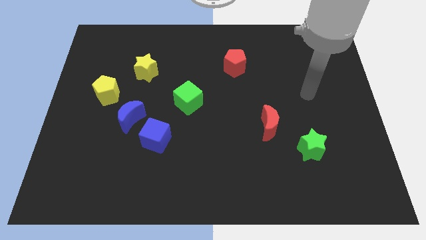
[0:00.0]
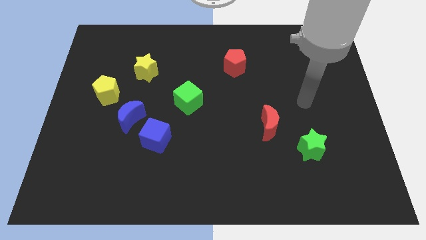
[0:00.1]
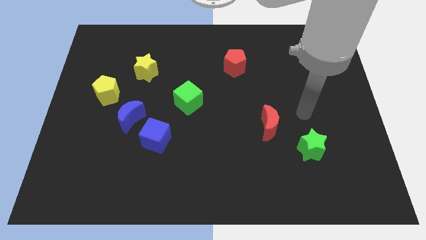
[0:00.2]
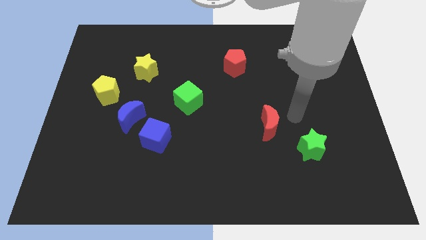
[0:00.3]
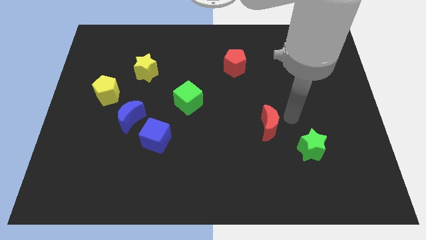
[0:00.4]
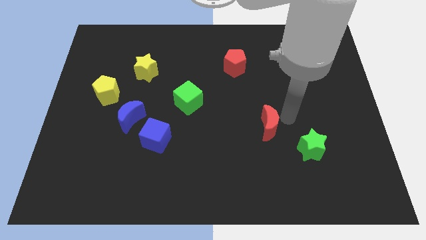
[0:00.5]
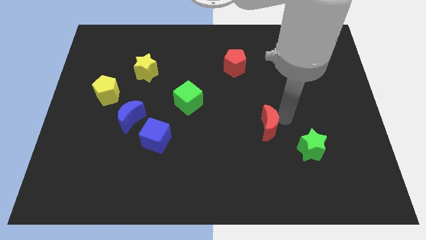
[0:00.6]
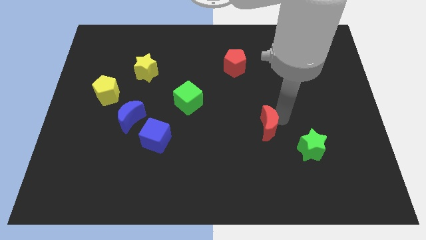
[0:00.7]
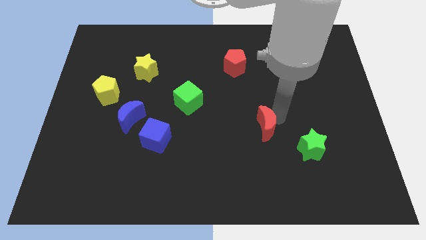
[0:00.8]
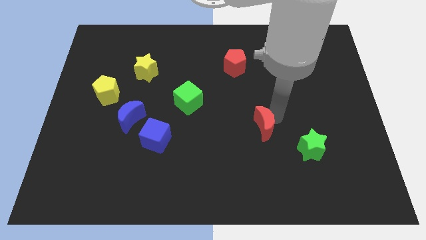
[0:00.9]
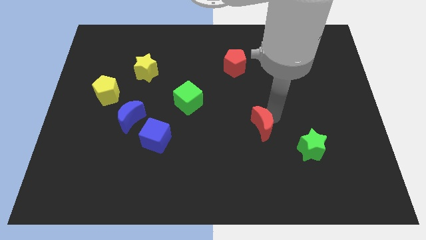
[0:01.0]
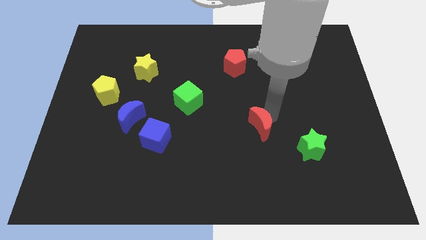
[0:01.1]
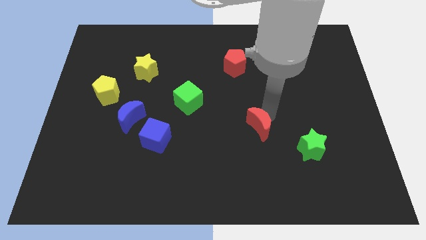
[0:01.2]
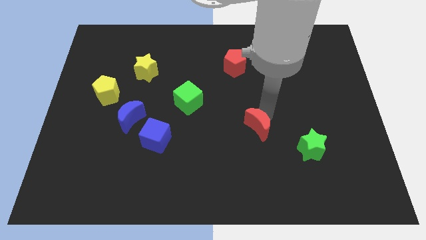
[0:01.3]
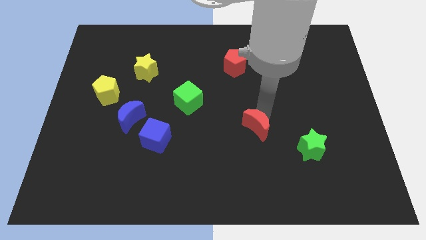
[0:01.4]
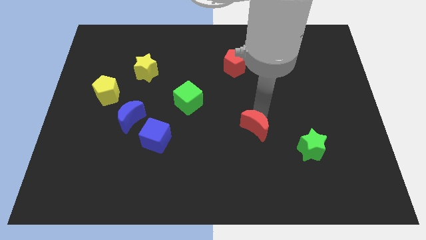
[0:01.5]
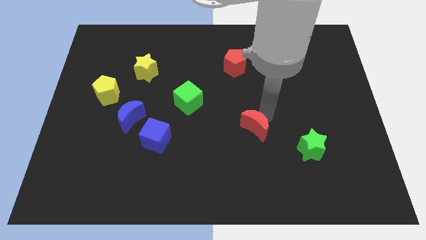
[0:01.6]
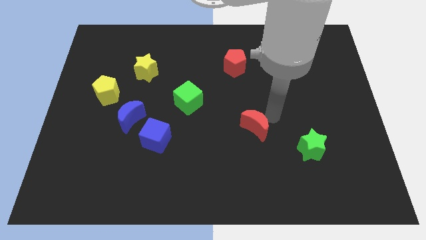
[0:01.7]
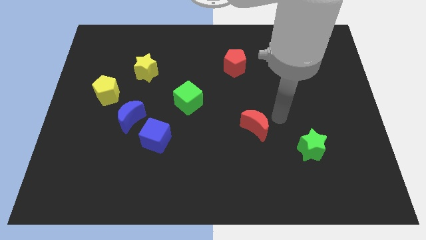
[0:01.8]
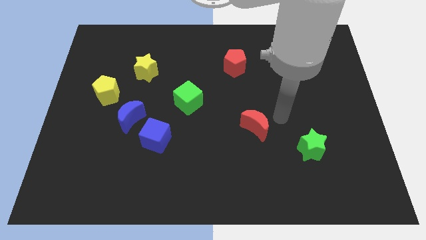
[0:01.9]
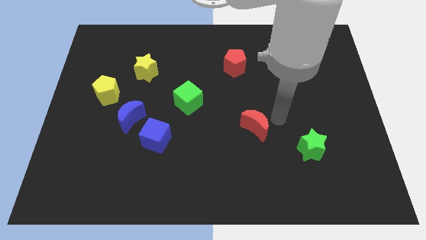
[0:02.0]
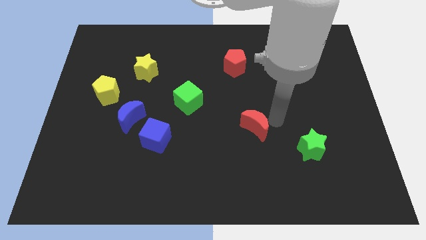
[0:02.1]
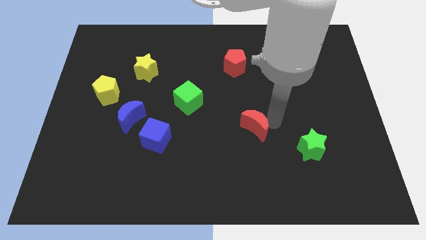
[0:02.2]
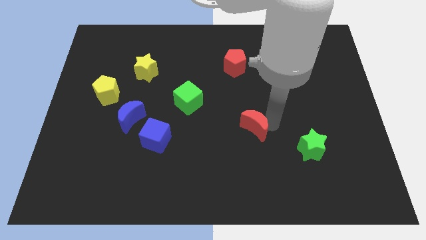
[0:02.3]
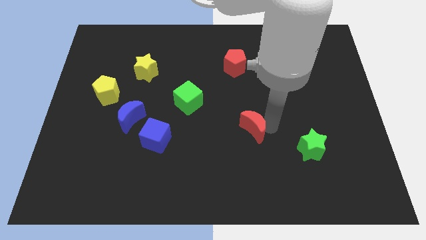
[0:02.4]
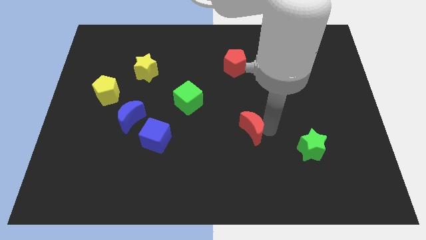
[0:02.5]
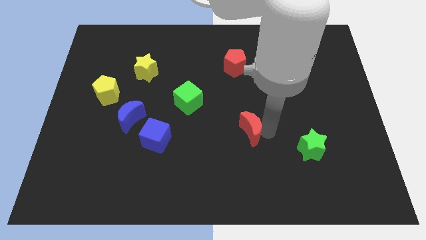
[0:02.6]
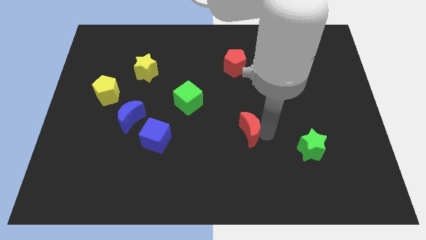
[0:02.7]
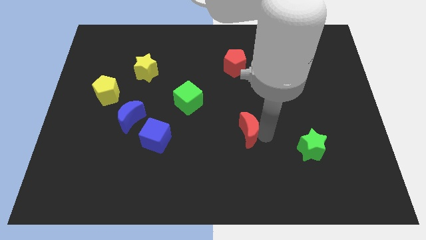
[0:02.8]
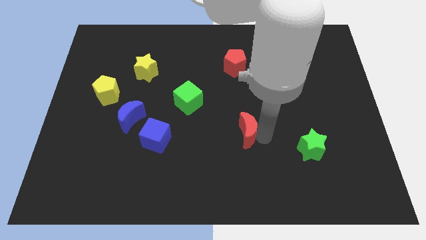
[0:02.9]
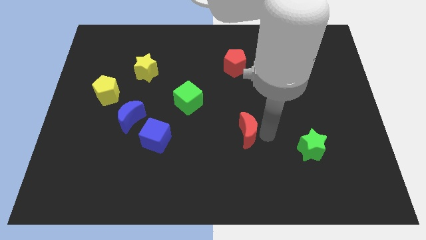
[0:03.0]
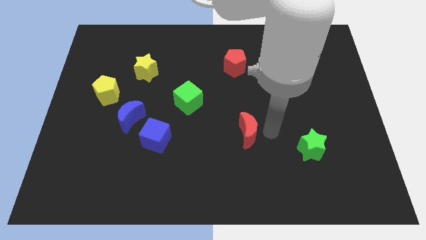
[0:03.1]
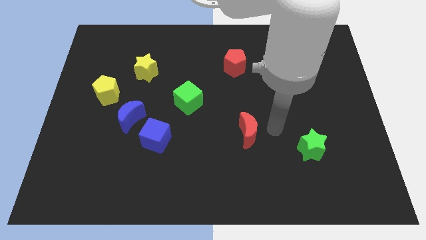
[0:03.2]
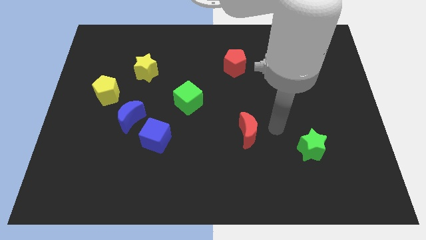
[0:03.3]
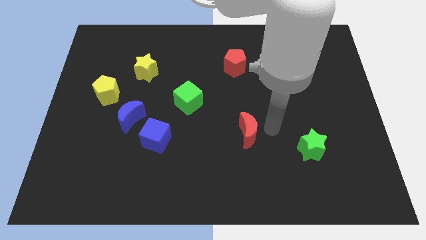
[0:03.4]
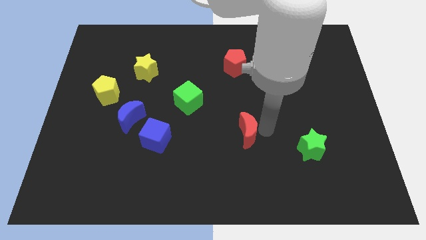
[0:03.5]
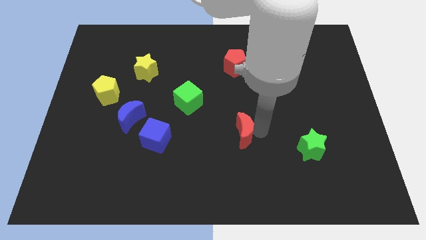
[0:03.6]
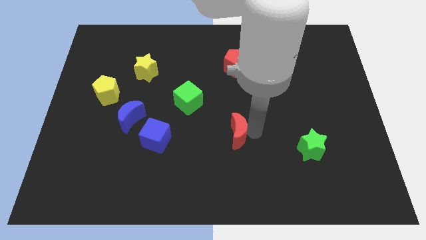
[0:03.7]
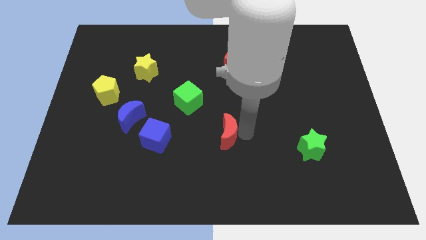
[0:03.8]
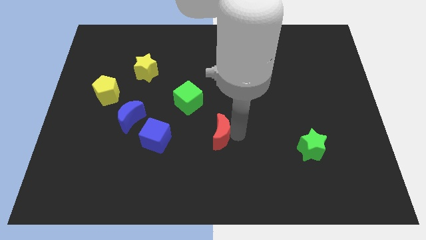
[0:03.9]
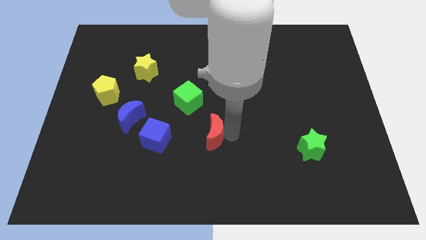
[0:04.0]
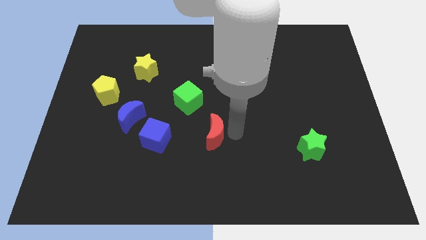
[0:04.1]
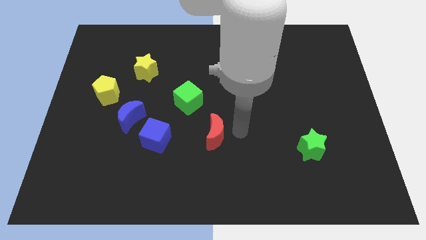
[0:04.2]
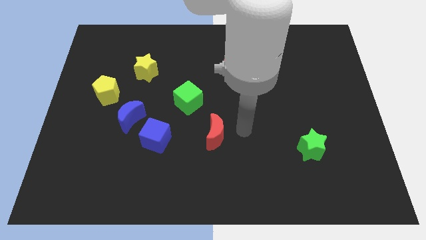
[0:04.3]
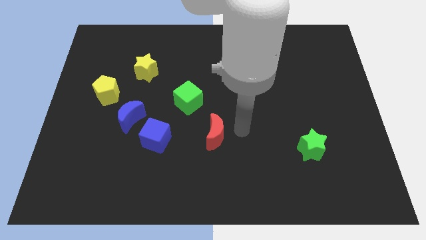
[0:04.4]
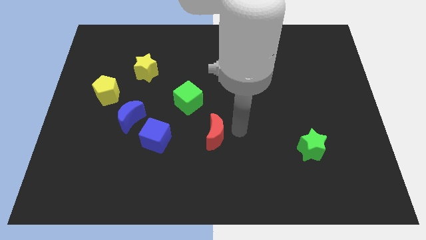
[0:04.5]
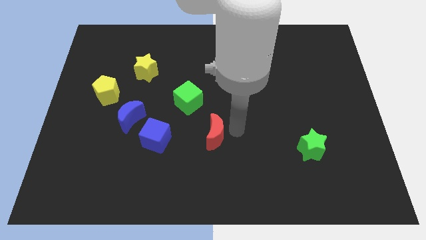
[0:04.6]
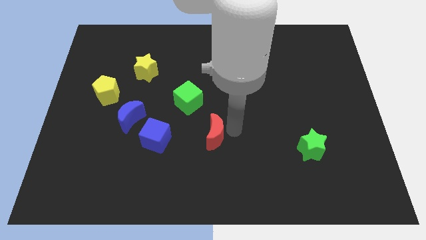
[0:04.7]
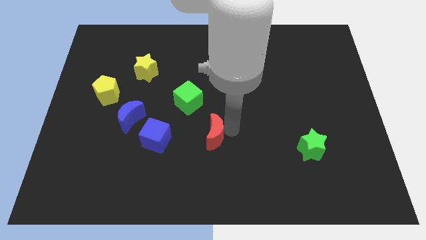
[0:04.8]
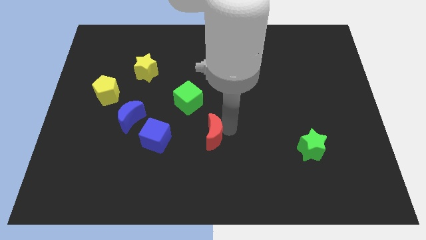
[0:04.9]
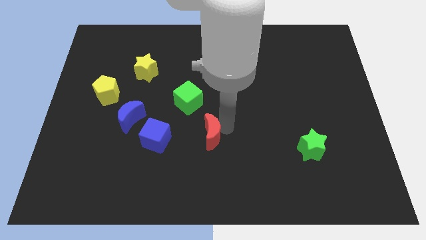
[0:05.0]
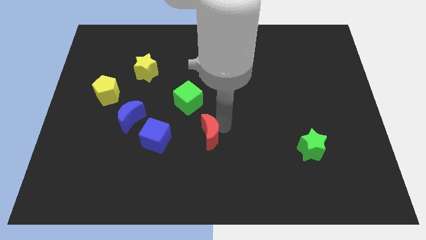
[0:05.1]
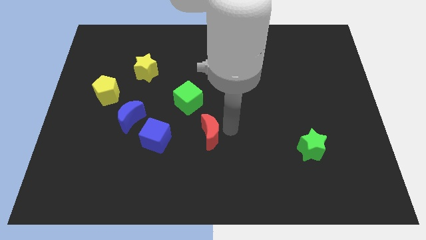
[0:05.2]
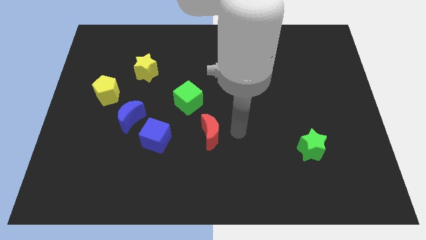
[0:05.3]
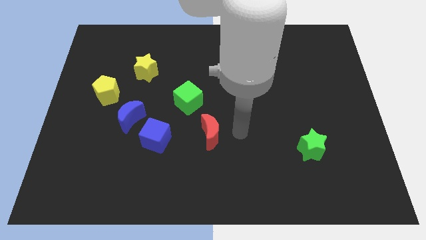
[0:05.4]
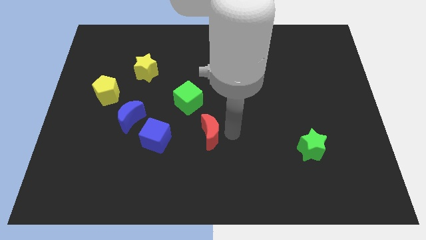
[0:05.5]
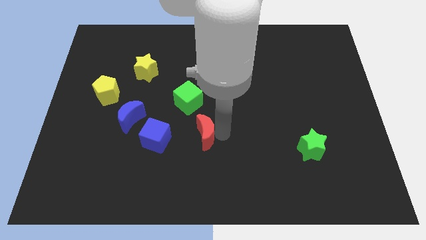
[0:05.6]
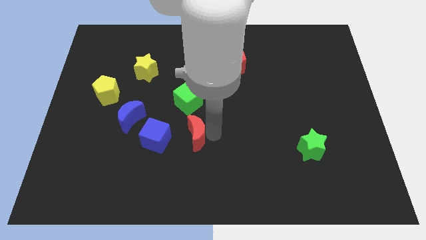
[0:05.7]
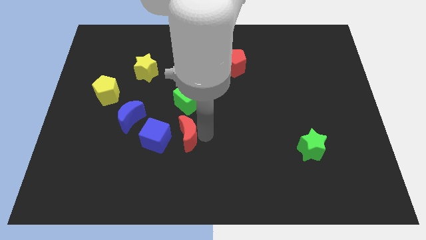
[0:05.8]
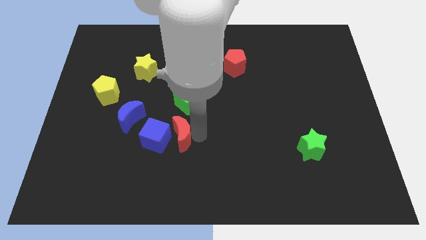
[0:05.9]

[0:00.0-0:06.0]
move the red moon close to the blue cube

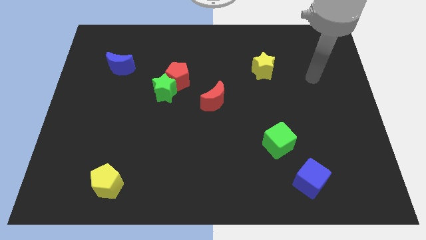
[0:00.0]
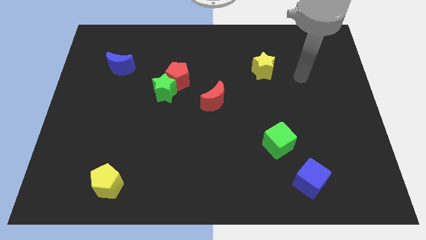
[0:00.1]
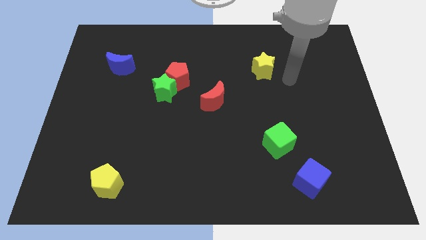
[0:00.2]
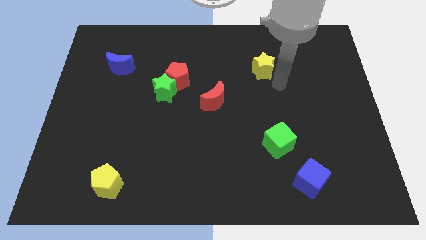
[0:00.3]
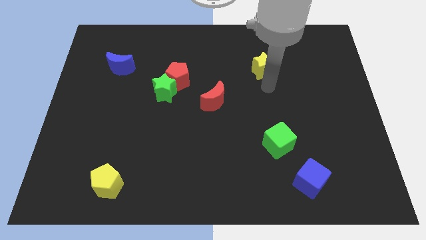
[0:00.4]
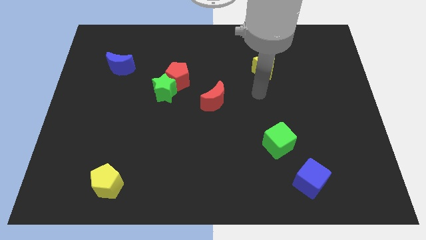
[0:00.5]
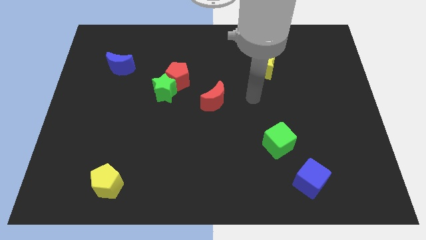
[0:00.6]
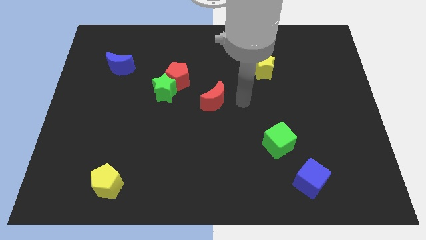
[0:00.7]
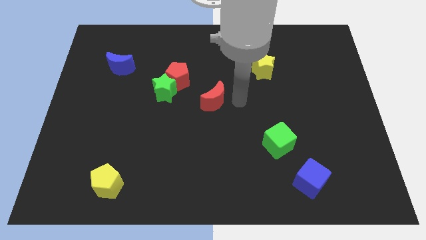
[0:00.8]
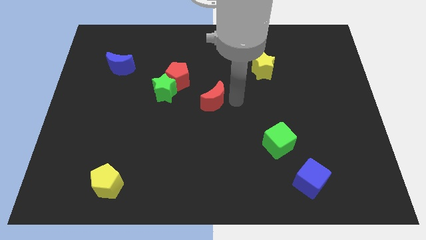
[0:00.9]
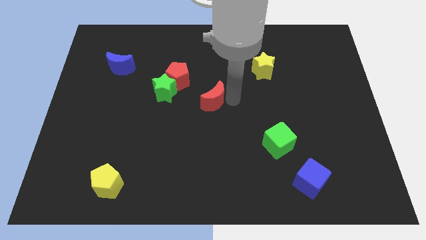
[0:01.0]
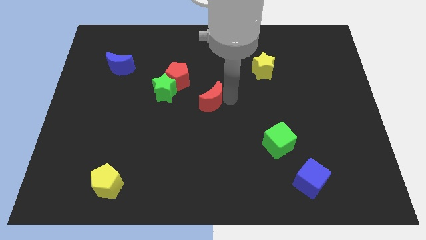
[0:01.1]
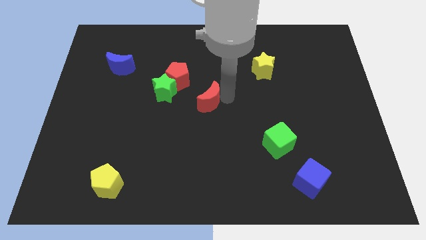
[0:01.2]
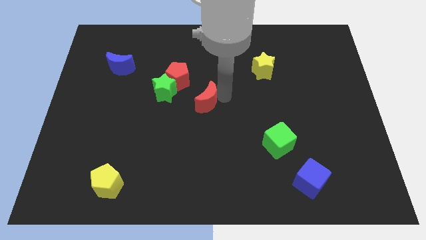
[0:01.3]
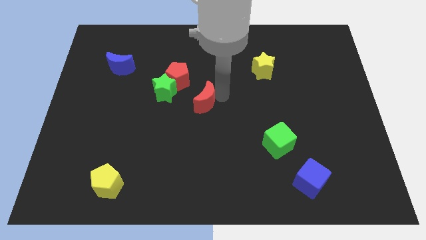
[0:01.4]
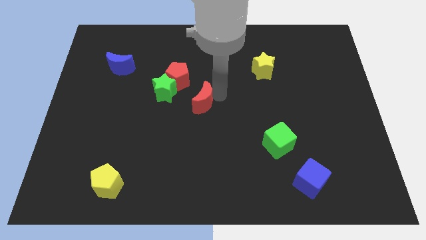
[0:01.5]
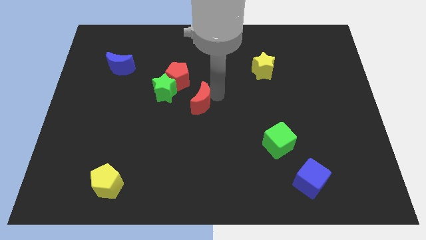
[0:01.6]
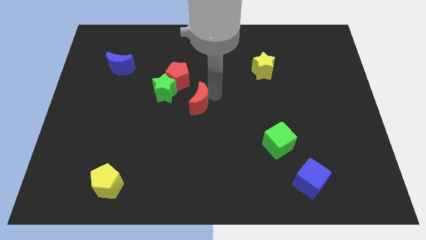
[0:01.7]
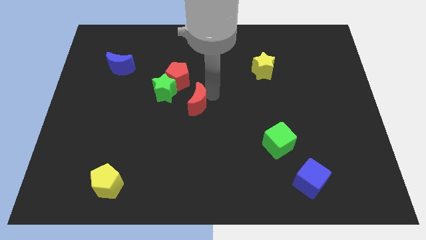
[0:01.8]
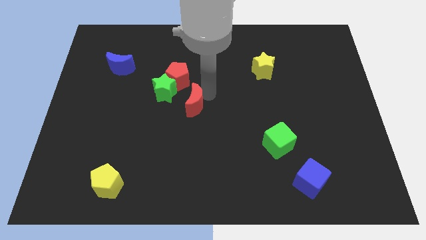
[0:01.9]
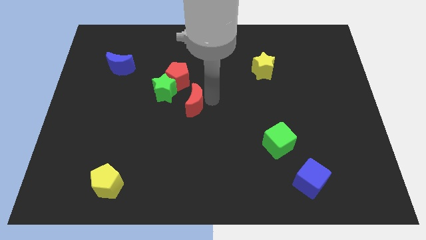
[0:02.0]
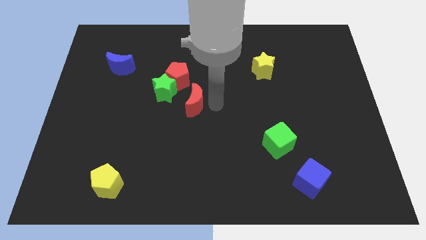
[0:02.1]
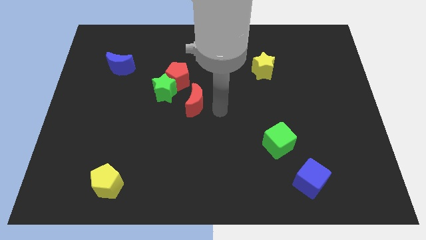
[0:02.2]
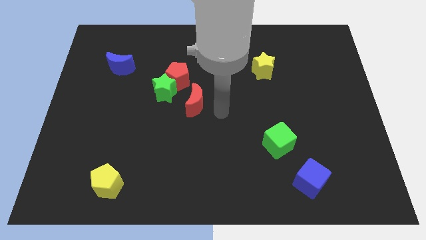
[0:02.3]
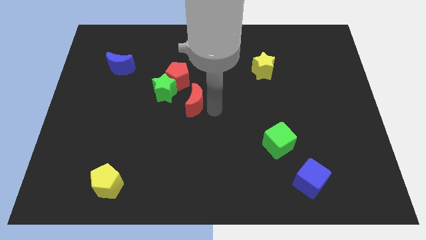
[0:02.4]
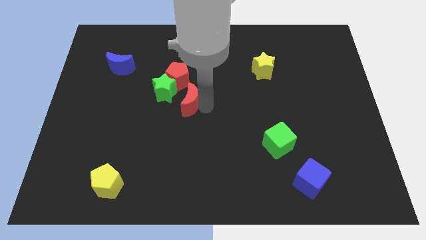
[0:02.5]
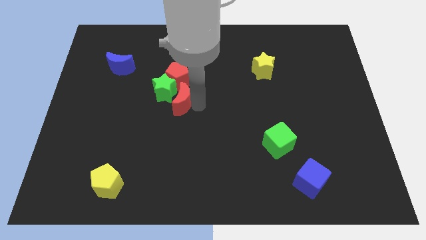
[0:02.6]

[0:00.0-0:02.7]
move the red moon towards the green star

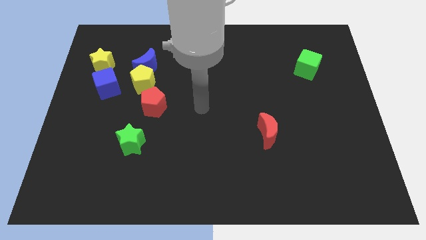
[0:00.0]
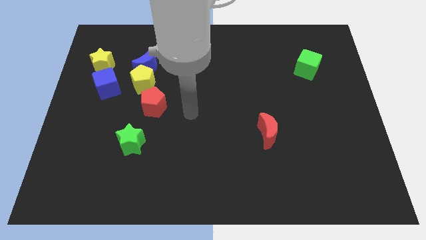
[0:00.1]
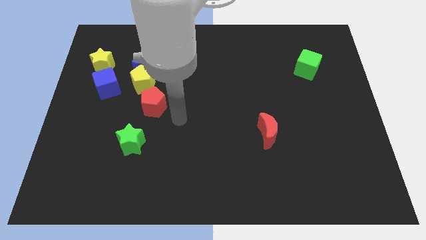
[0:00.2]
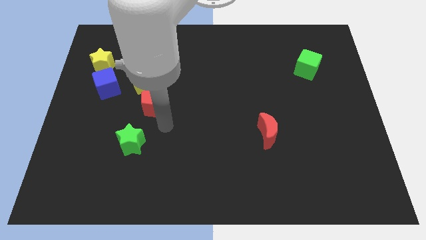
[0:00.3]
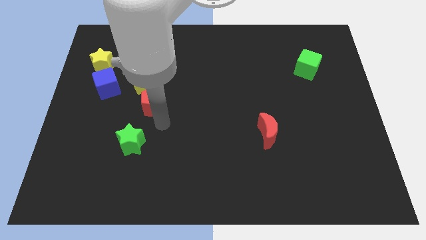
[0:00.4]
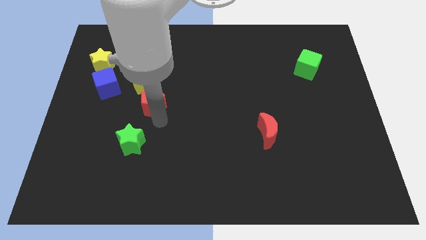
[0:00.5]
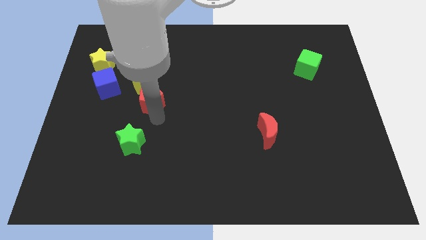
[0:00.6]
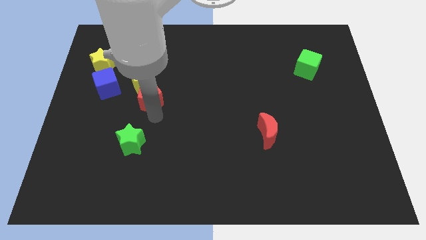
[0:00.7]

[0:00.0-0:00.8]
slide the red pentagon towards the yellow pentagon
